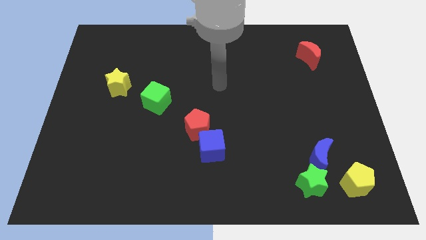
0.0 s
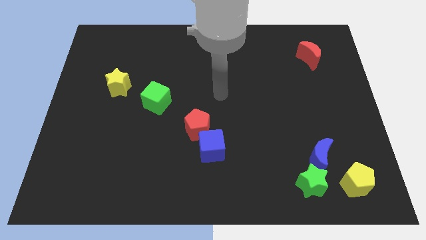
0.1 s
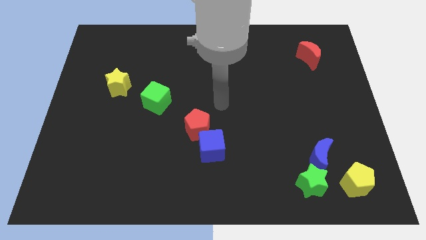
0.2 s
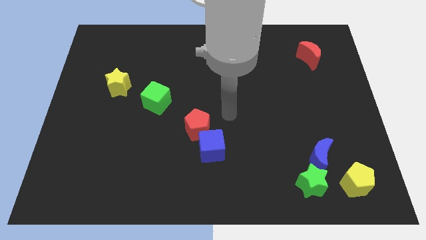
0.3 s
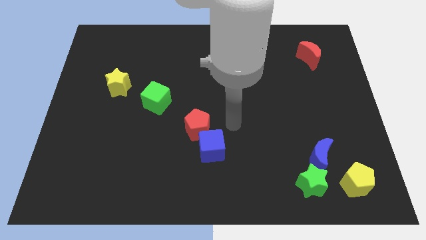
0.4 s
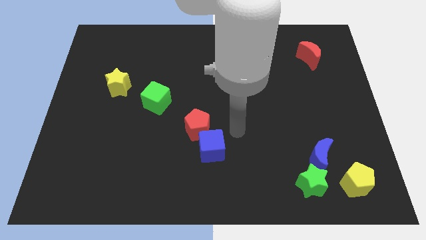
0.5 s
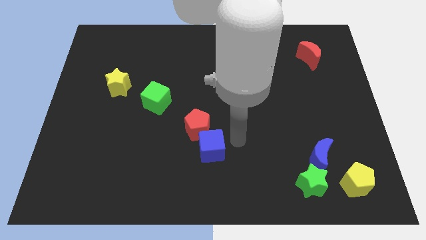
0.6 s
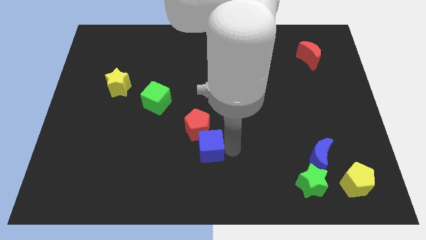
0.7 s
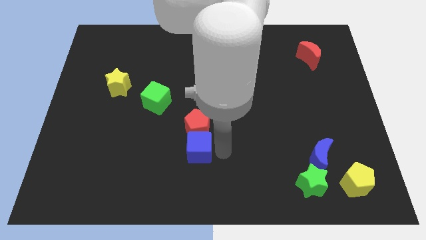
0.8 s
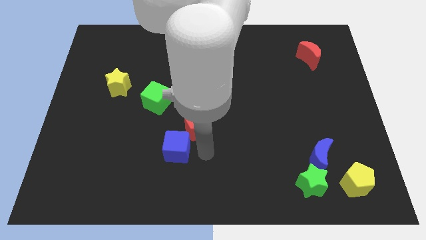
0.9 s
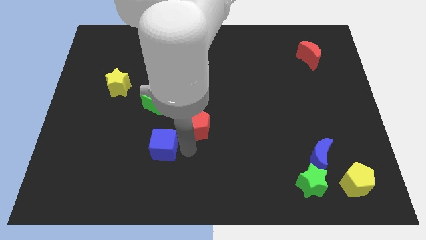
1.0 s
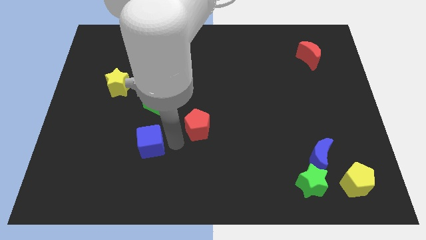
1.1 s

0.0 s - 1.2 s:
pull the red pentagon apart from the blue cube

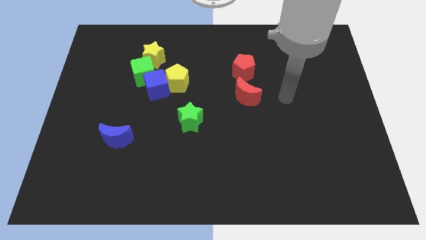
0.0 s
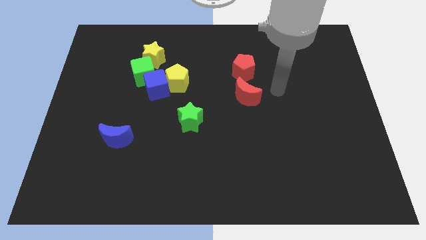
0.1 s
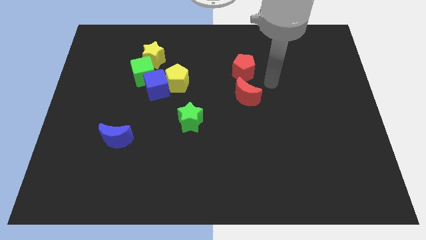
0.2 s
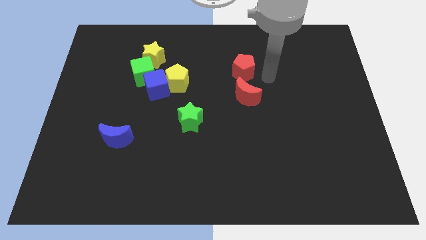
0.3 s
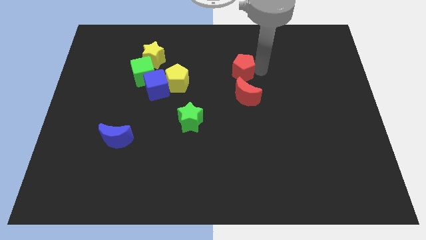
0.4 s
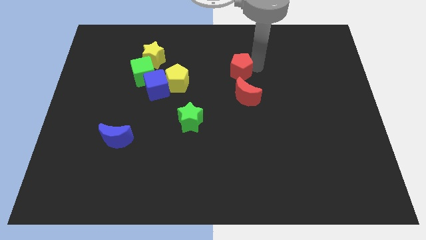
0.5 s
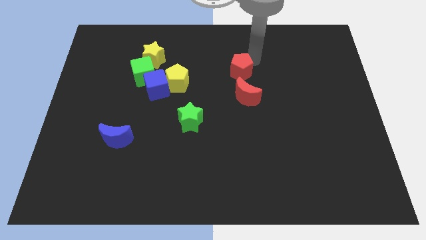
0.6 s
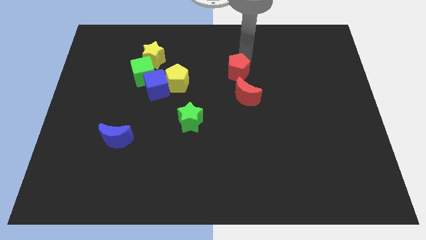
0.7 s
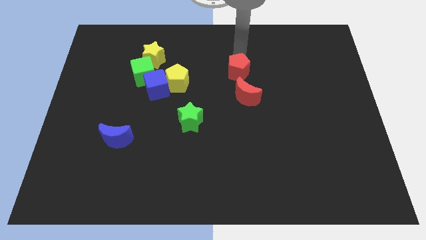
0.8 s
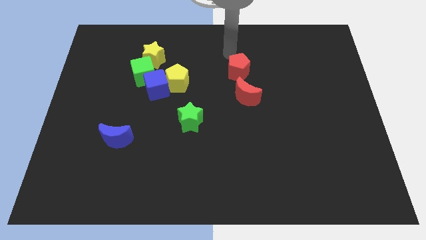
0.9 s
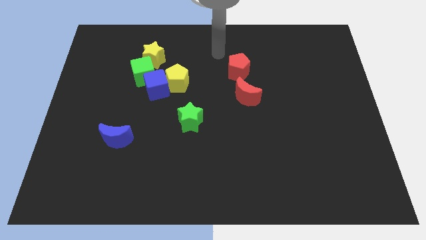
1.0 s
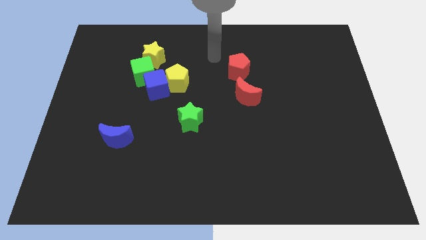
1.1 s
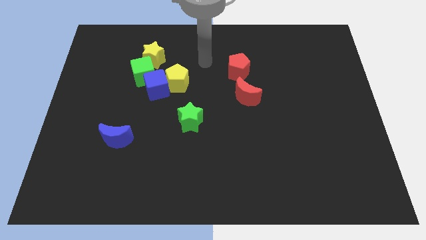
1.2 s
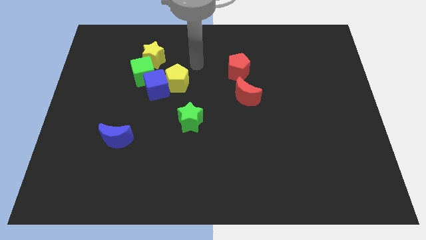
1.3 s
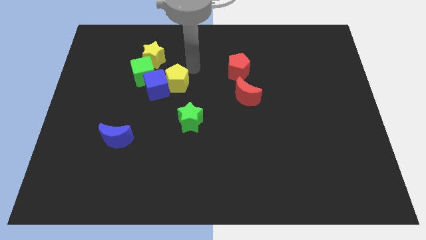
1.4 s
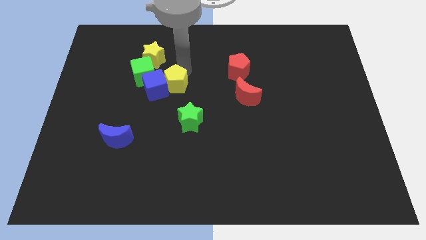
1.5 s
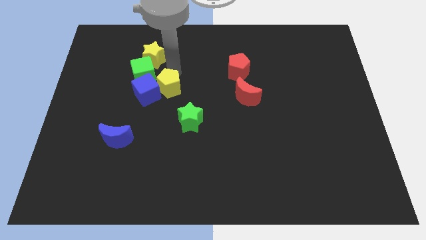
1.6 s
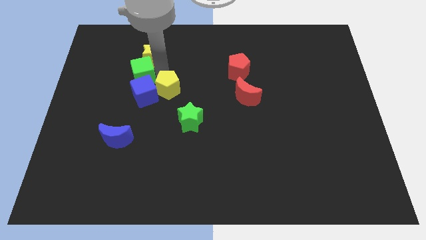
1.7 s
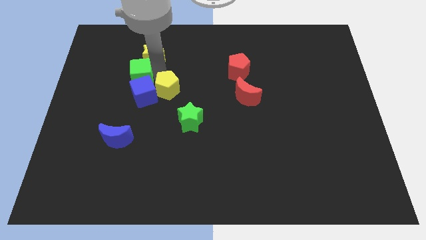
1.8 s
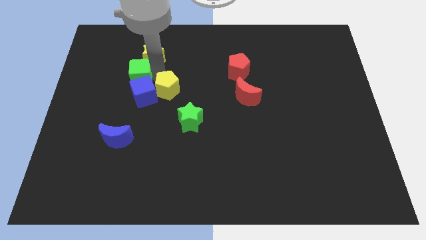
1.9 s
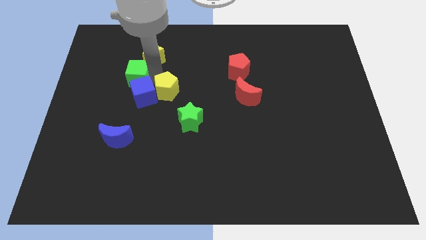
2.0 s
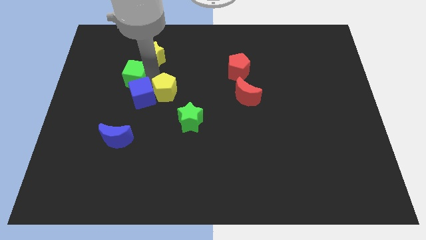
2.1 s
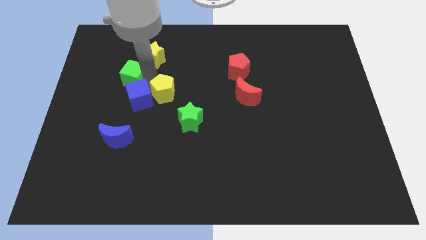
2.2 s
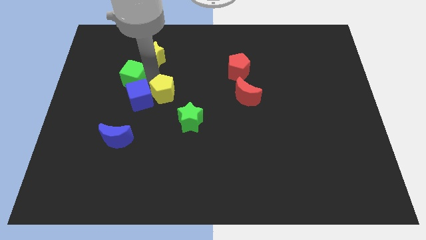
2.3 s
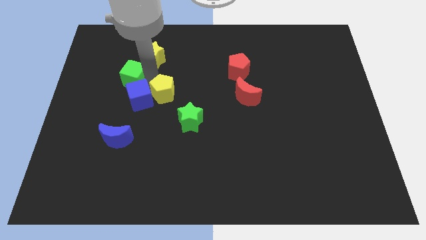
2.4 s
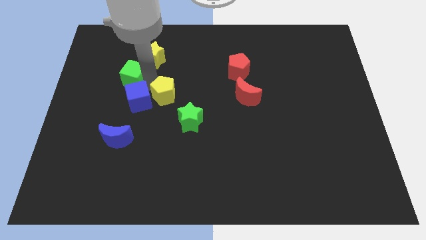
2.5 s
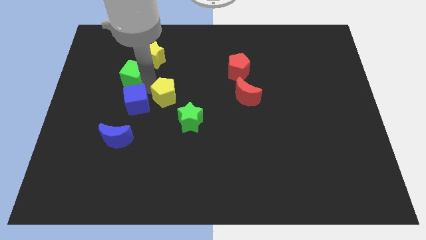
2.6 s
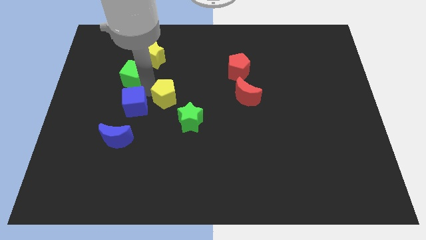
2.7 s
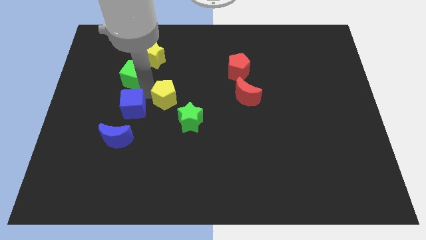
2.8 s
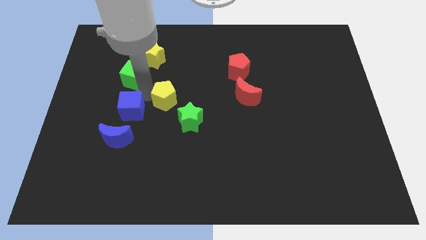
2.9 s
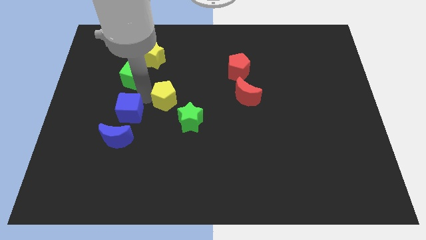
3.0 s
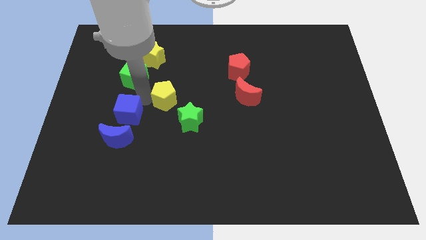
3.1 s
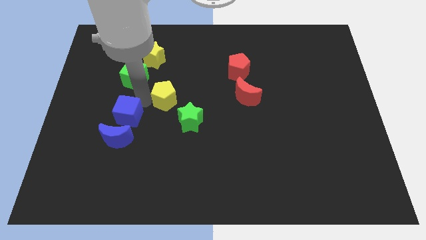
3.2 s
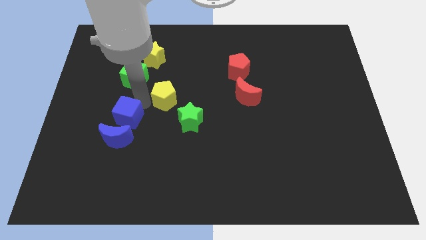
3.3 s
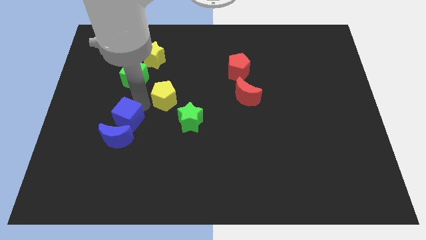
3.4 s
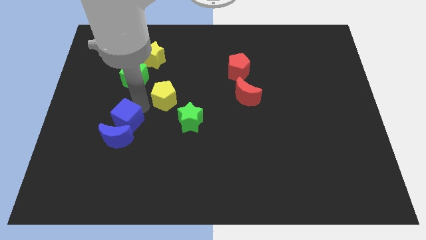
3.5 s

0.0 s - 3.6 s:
separate the blue cube from the yellow pentagon and green cube

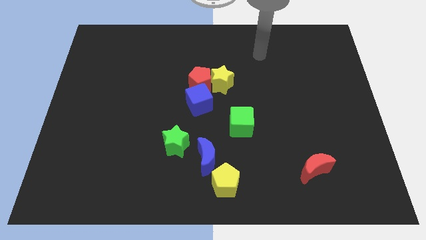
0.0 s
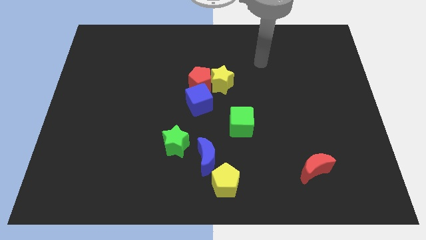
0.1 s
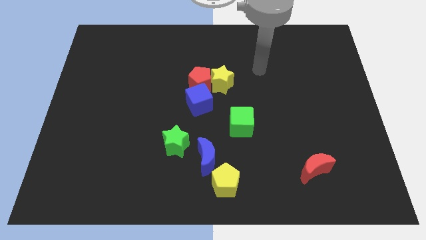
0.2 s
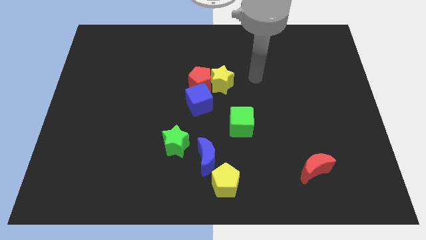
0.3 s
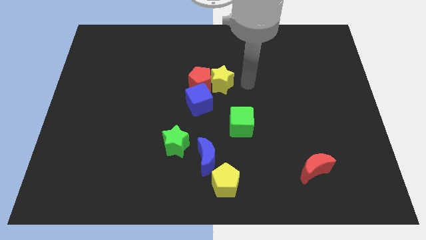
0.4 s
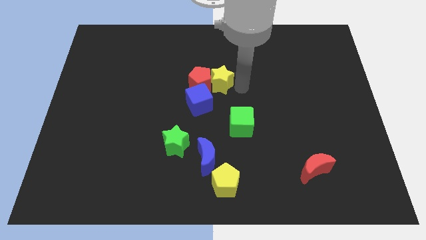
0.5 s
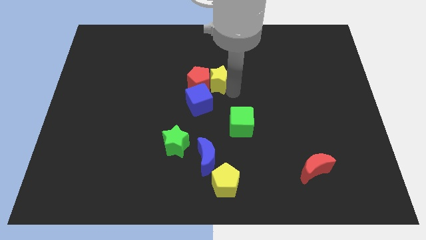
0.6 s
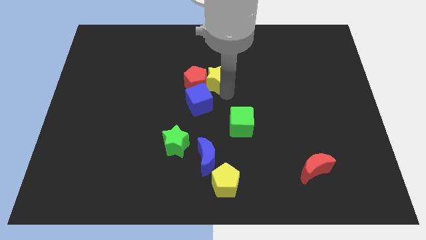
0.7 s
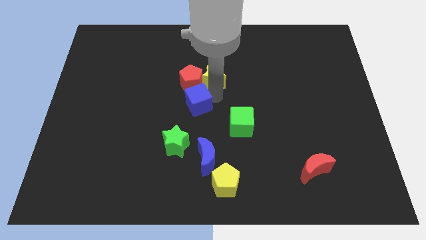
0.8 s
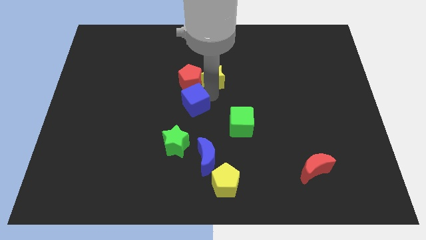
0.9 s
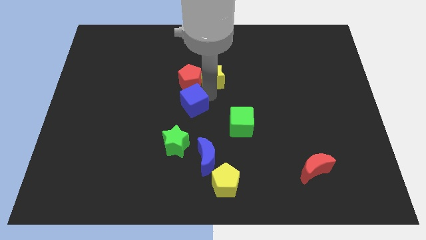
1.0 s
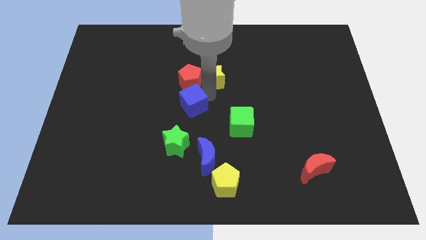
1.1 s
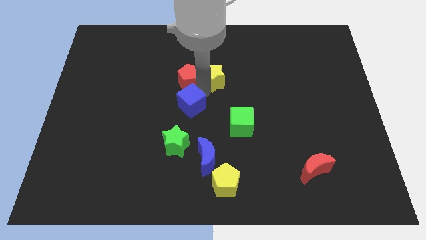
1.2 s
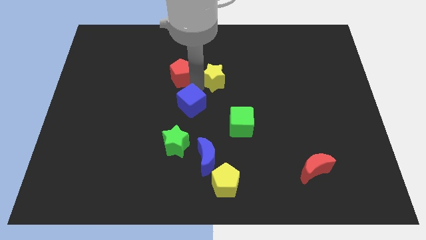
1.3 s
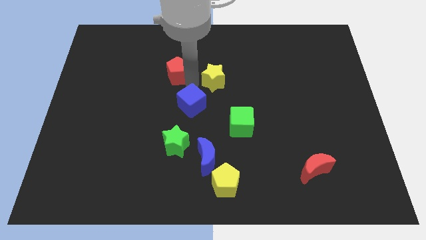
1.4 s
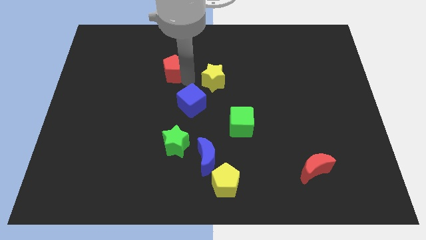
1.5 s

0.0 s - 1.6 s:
pull the red pentagon apart from the yellow star and blue cube

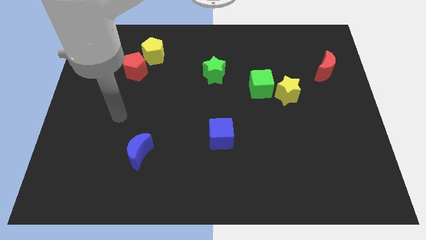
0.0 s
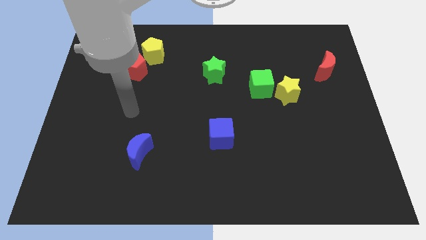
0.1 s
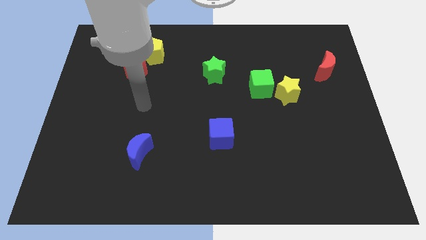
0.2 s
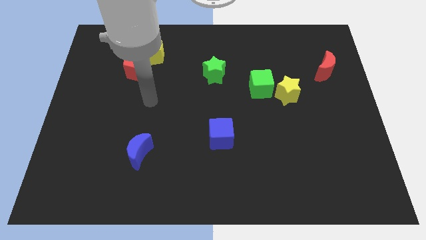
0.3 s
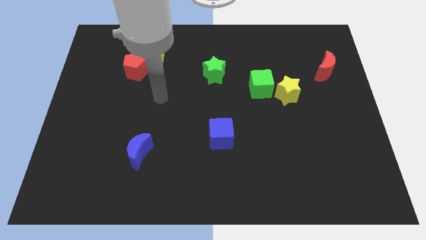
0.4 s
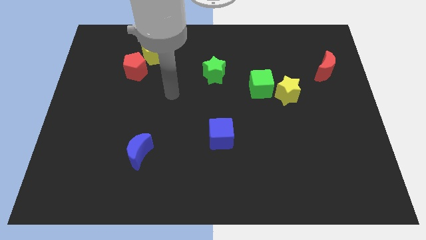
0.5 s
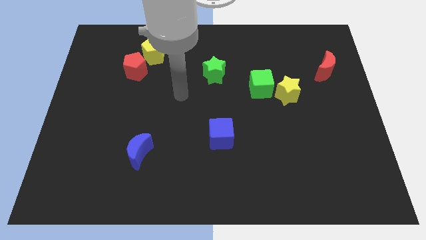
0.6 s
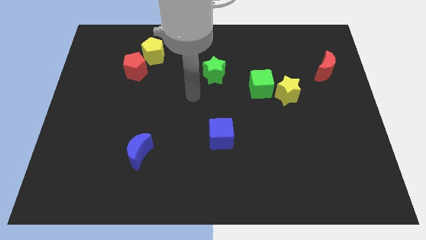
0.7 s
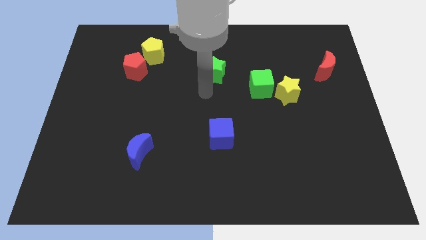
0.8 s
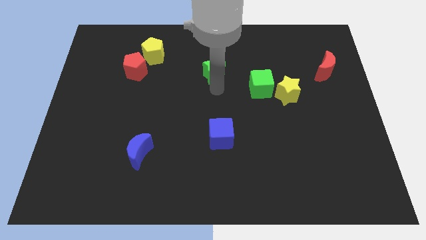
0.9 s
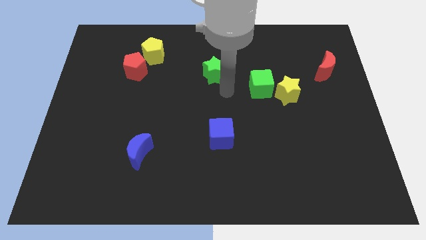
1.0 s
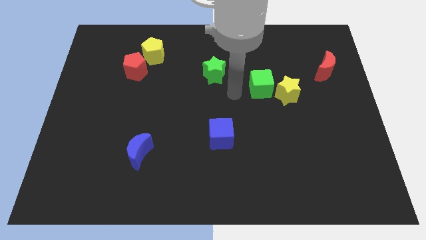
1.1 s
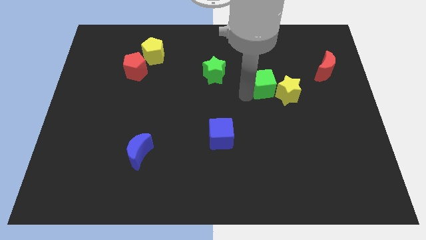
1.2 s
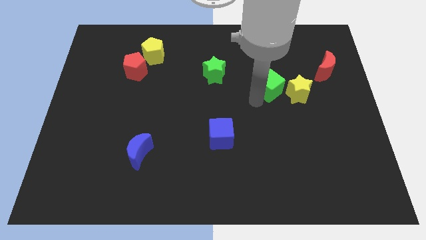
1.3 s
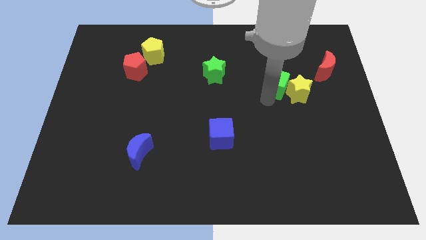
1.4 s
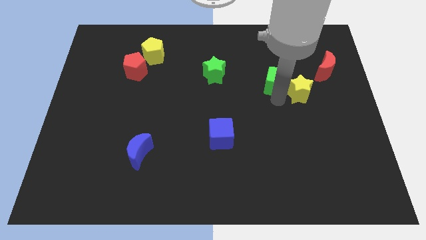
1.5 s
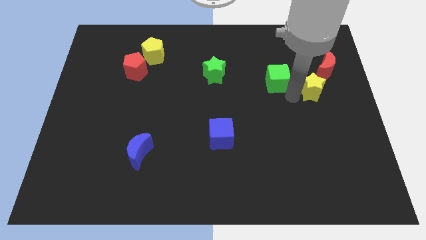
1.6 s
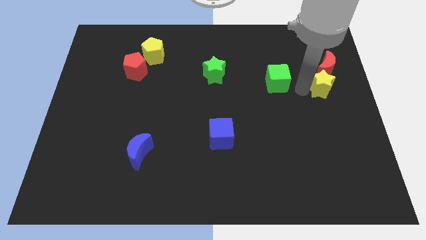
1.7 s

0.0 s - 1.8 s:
pull the green cube apart from the yellow star

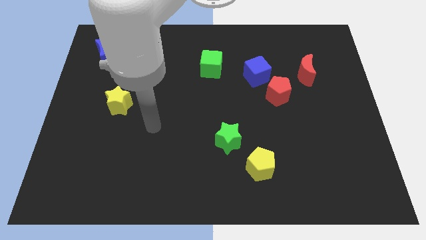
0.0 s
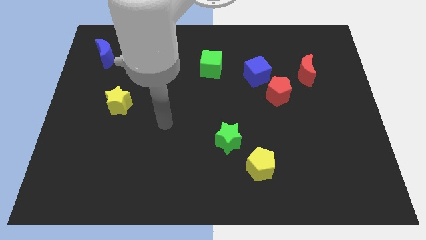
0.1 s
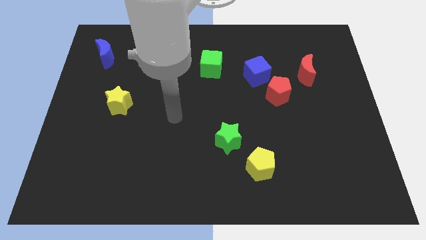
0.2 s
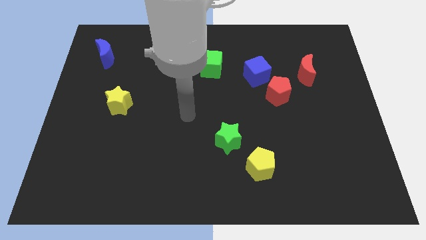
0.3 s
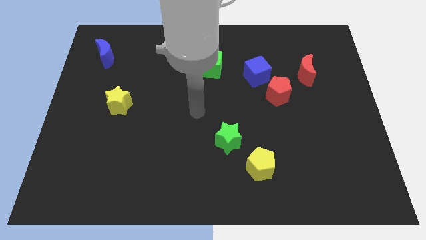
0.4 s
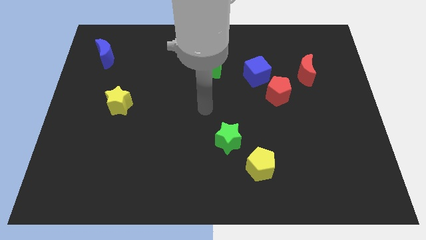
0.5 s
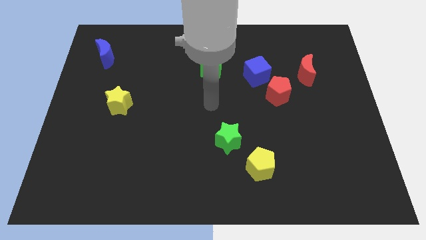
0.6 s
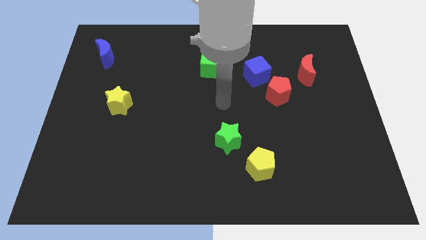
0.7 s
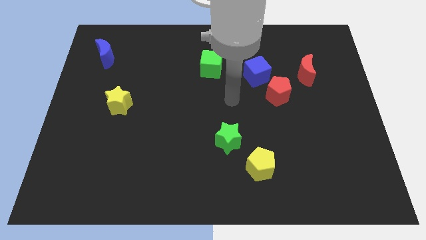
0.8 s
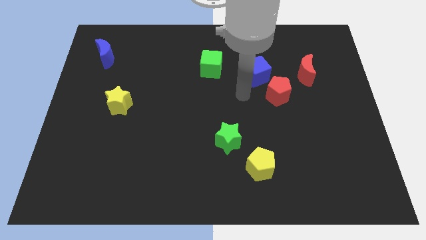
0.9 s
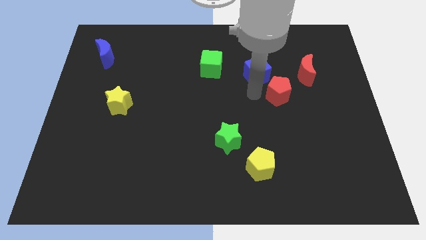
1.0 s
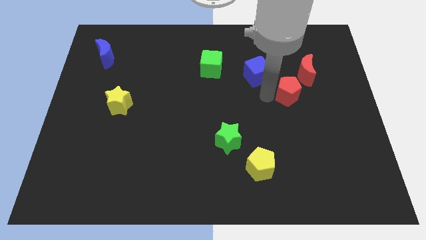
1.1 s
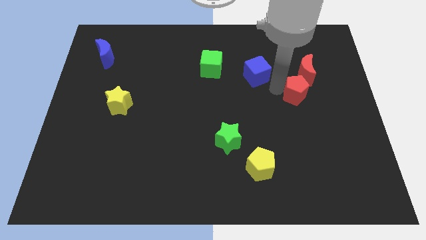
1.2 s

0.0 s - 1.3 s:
separate the blue cube from the red pentagon
